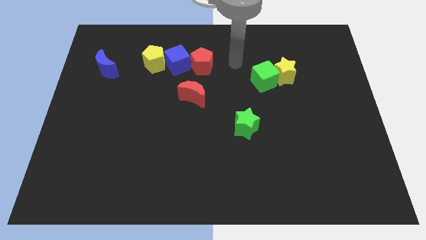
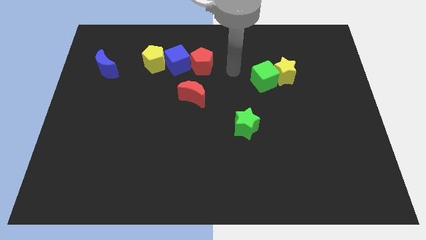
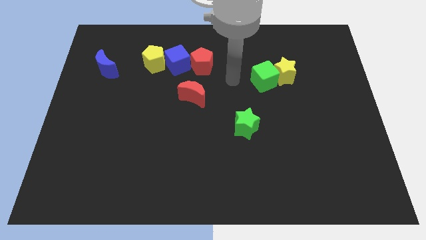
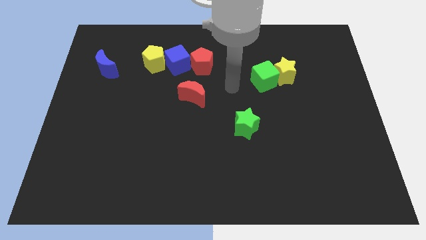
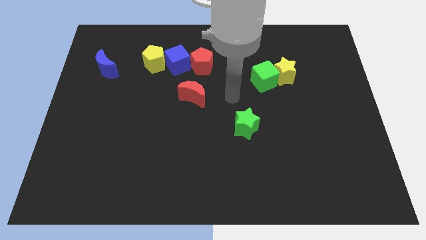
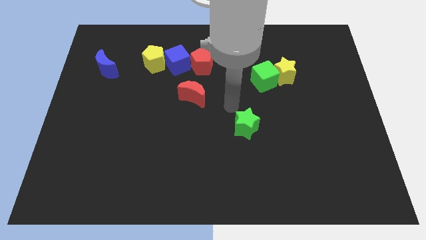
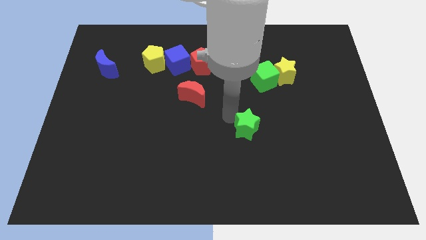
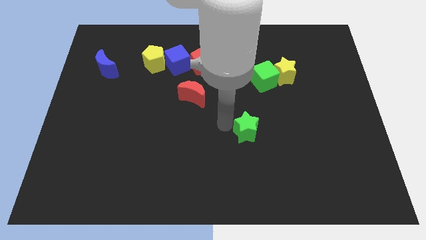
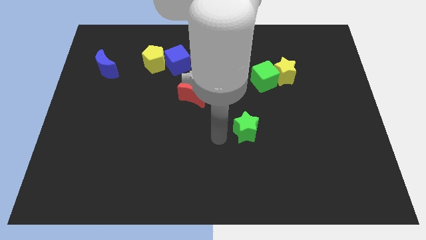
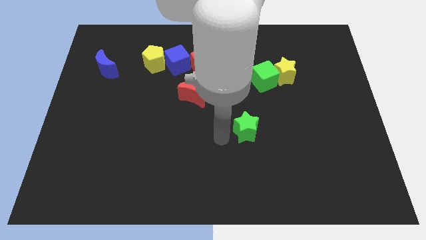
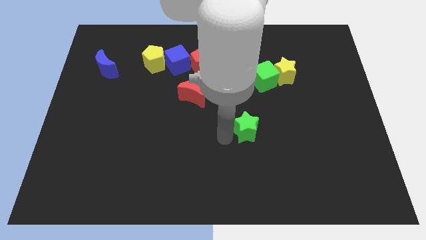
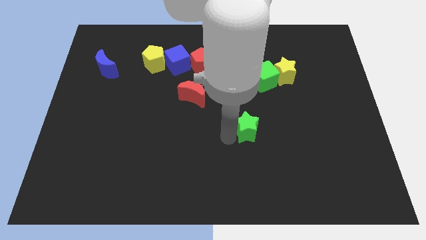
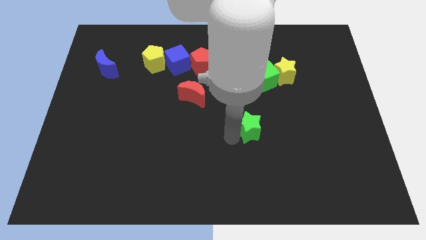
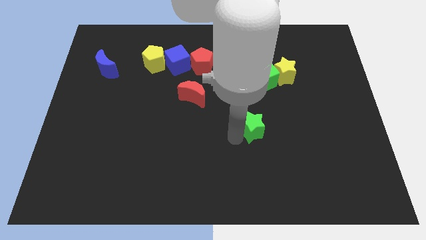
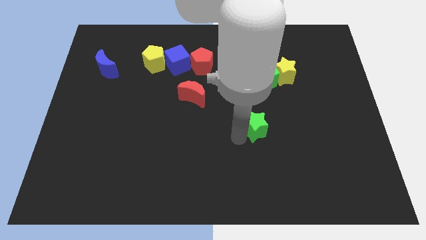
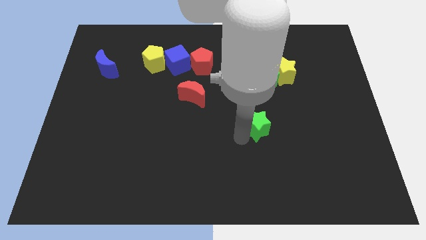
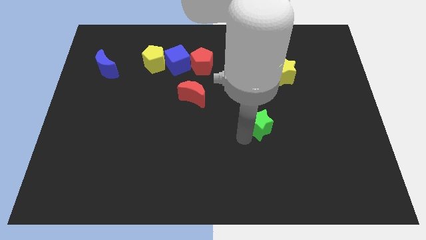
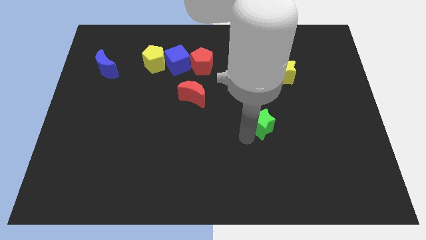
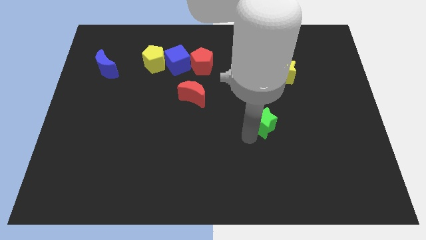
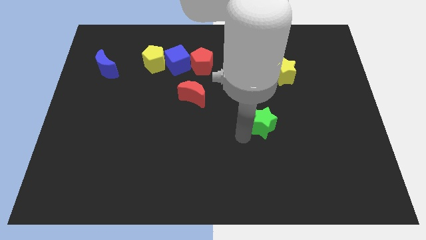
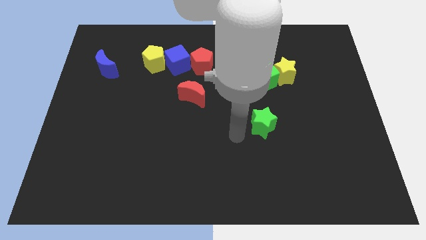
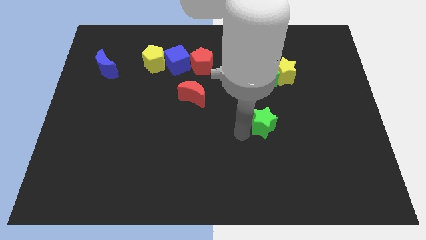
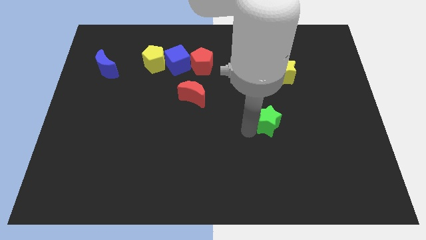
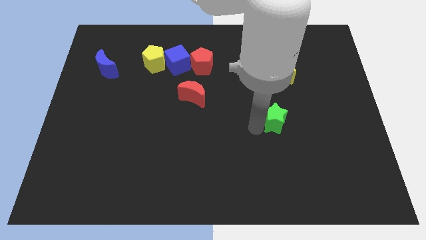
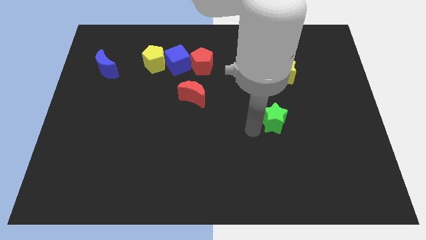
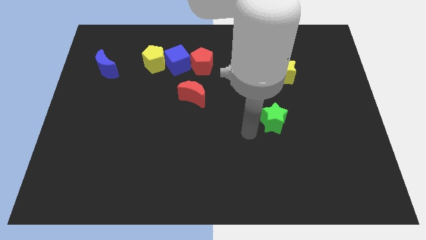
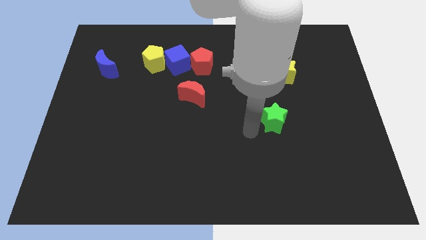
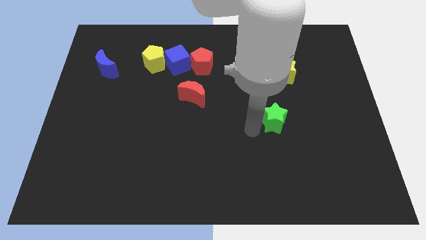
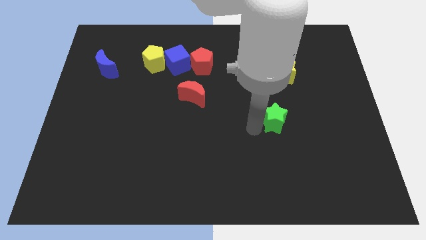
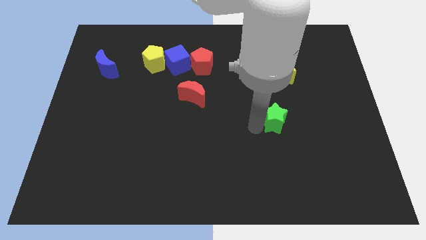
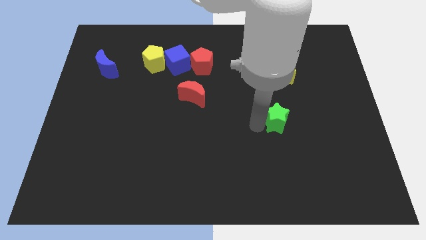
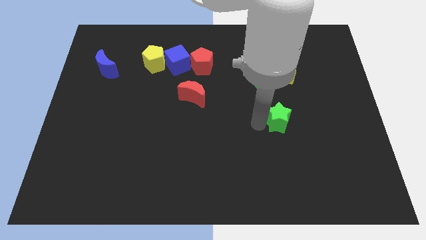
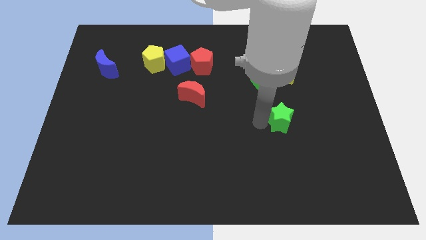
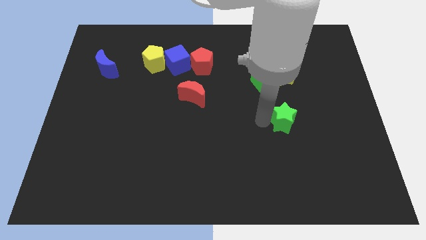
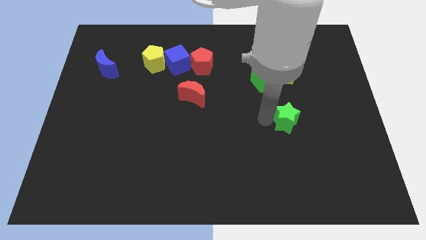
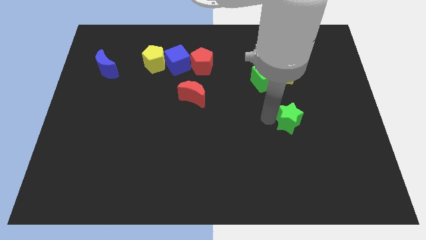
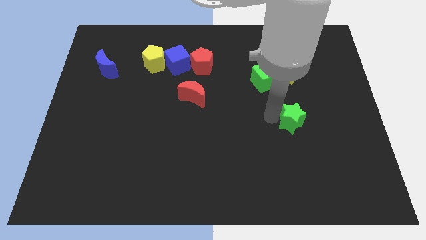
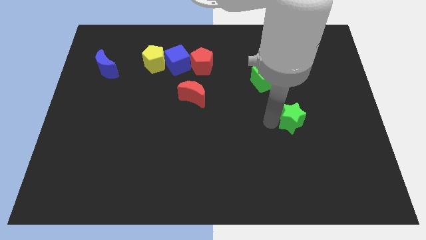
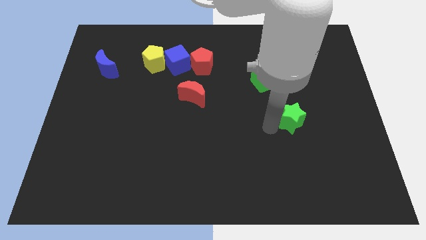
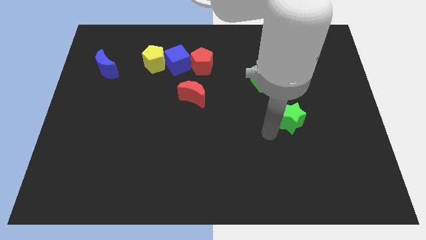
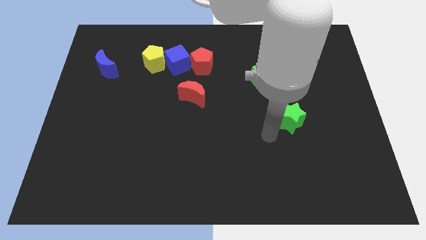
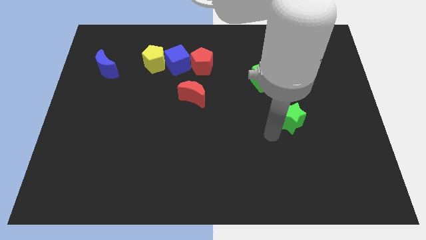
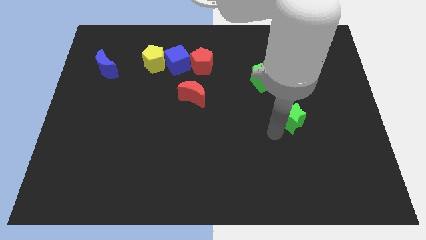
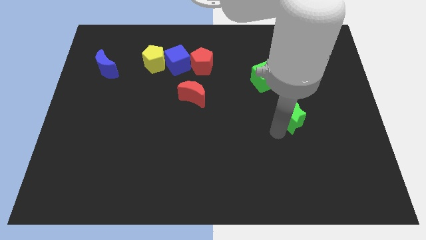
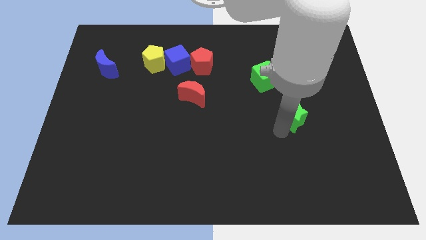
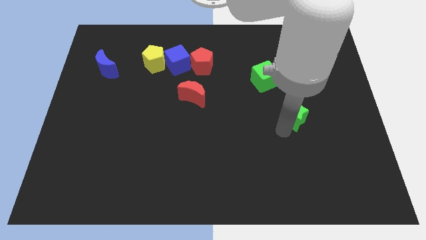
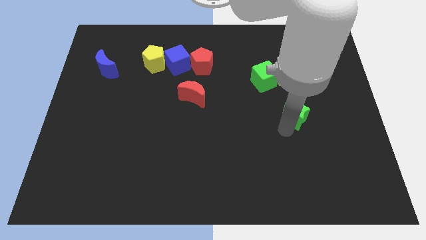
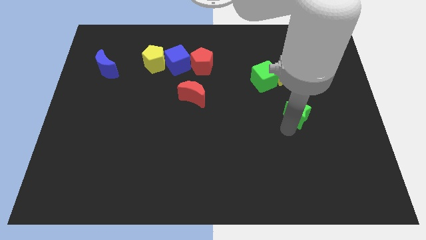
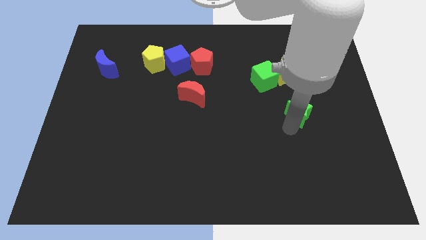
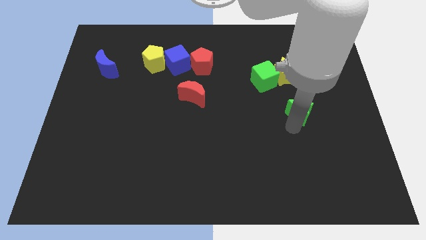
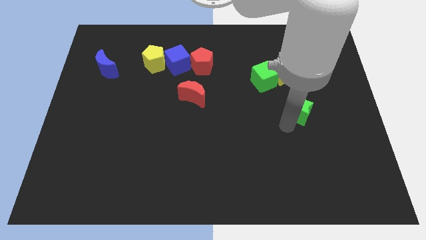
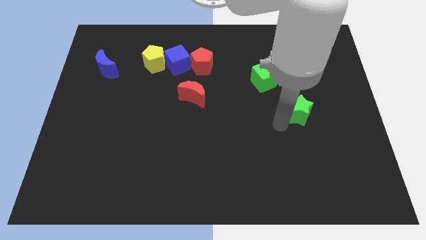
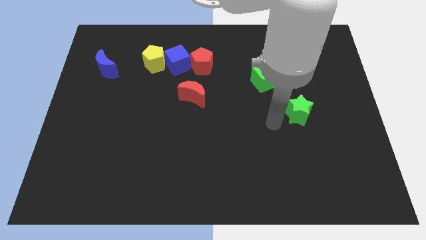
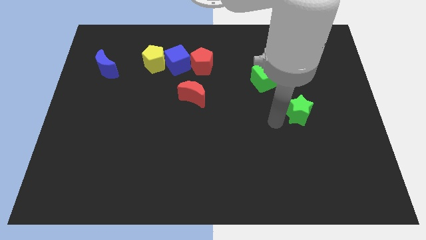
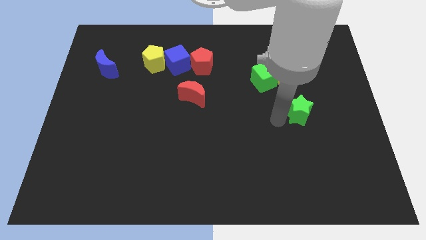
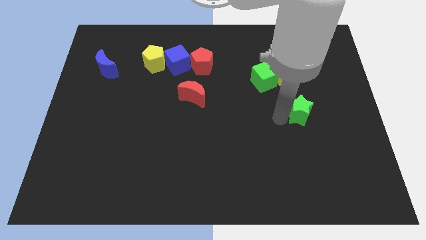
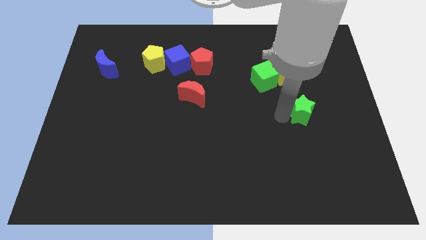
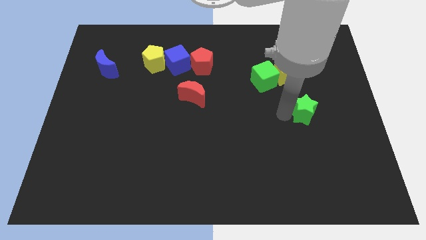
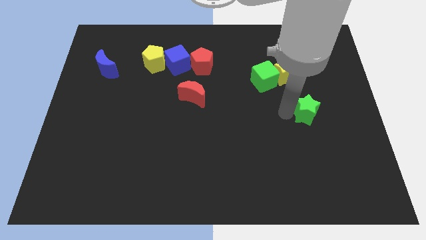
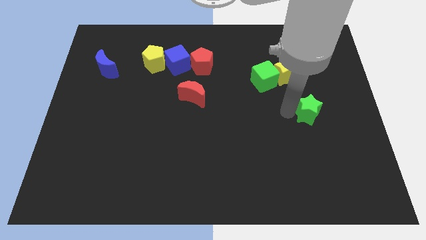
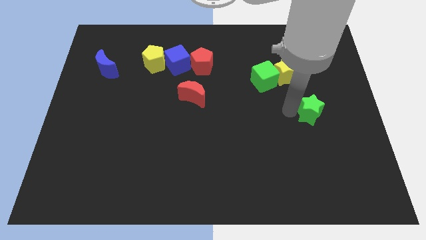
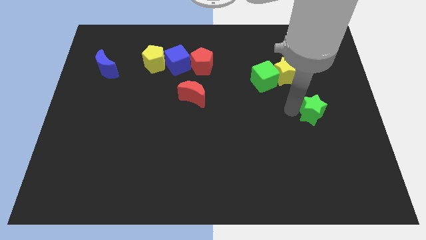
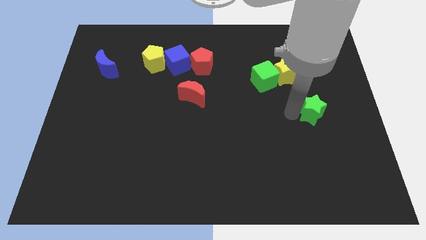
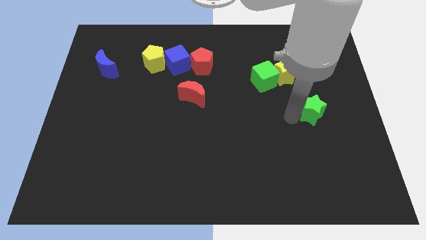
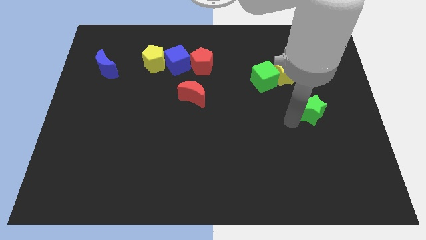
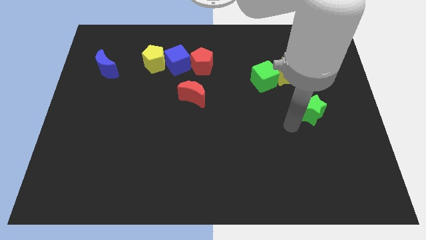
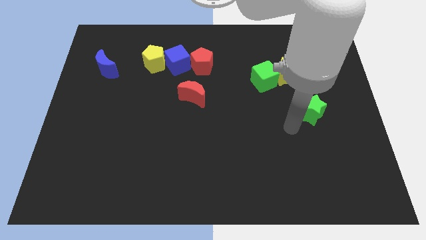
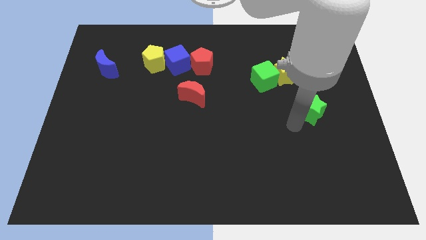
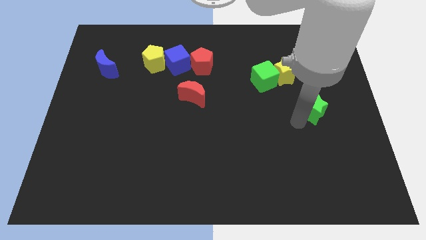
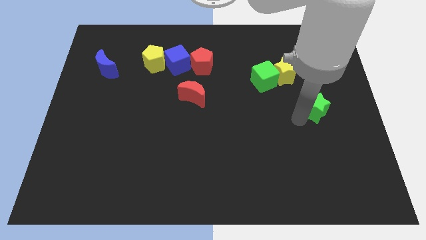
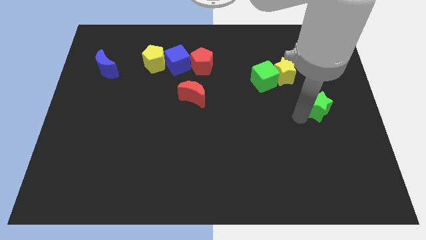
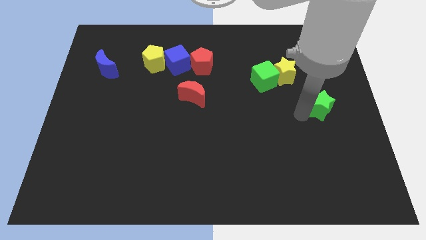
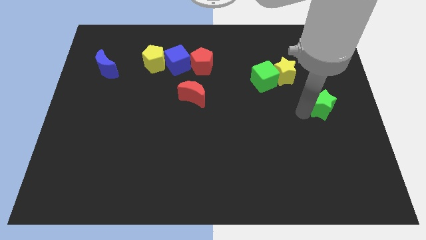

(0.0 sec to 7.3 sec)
put the green star to the right side
